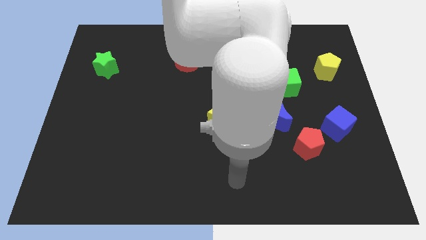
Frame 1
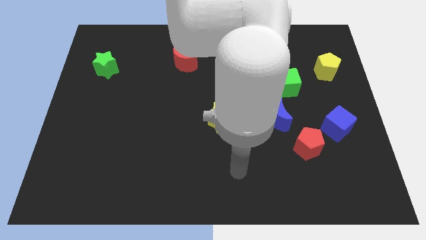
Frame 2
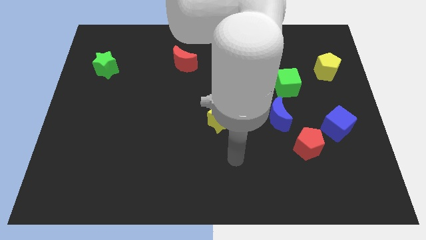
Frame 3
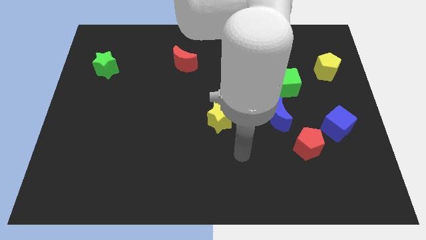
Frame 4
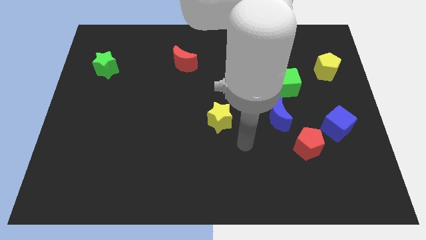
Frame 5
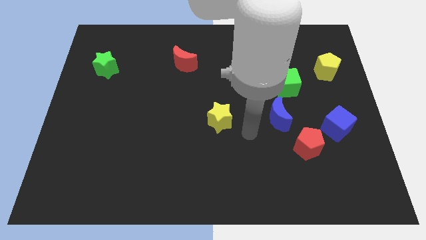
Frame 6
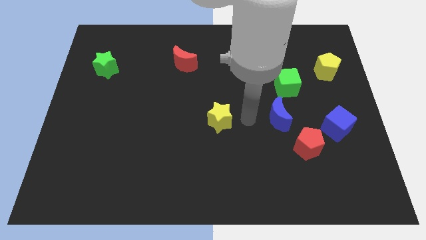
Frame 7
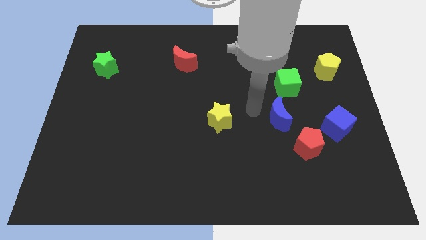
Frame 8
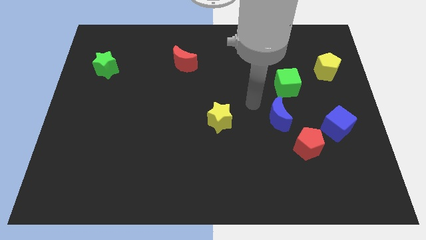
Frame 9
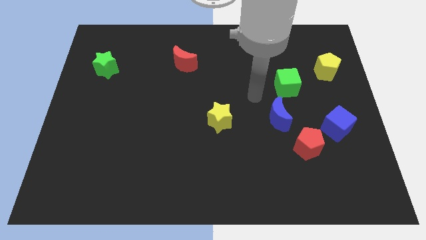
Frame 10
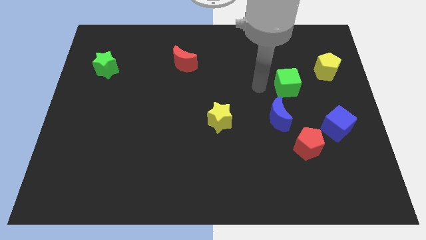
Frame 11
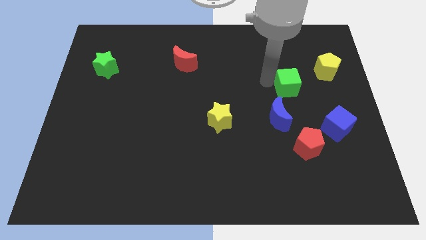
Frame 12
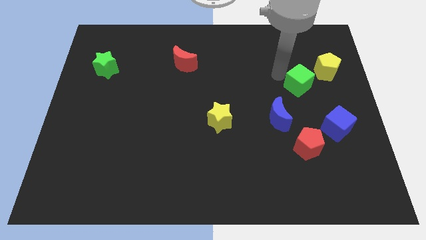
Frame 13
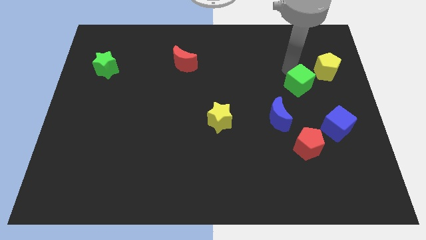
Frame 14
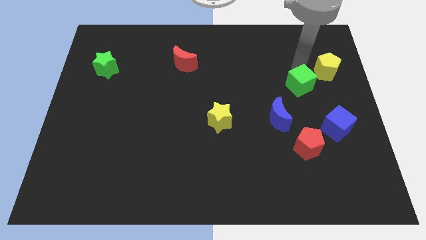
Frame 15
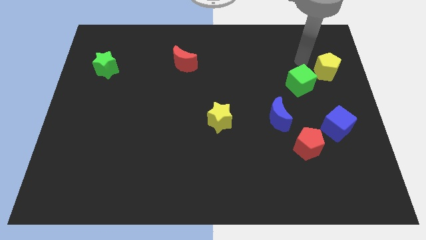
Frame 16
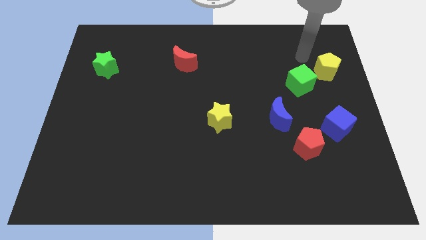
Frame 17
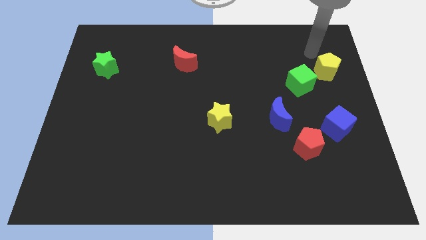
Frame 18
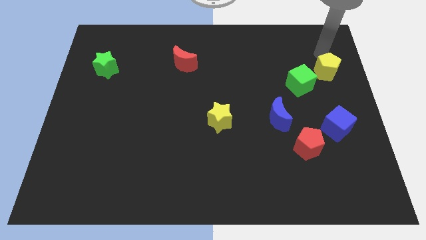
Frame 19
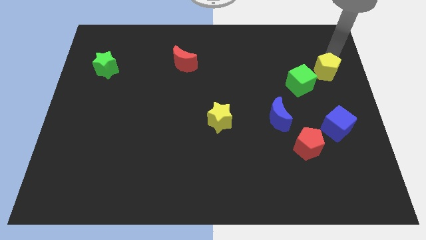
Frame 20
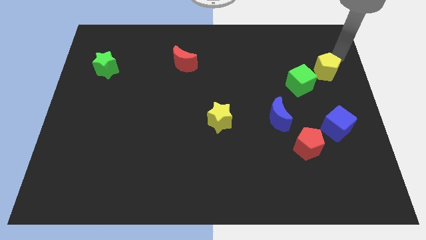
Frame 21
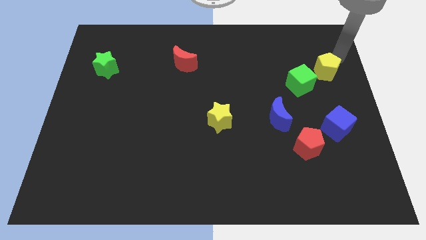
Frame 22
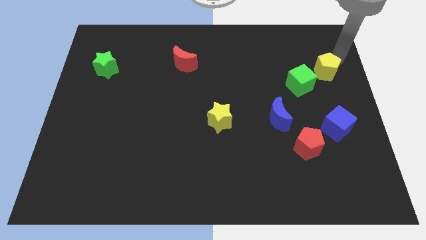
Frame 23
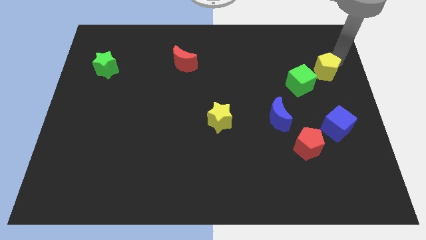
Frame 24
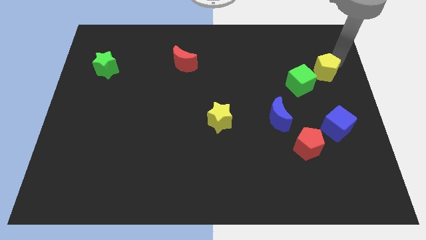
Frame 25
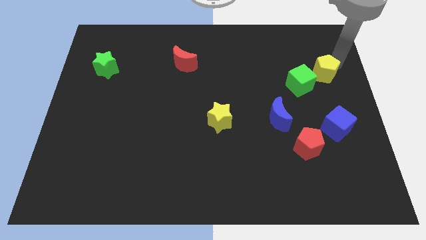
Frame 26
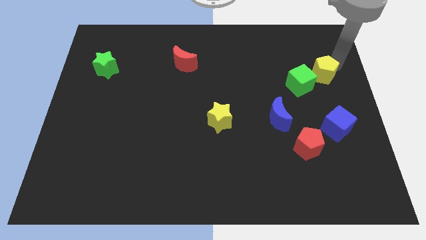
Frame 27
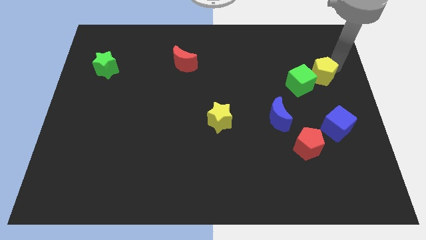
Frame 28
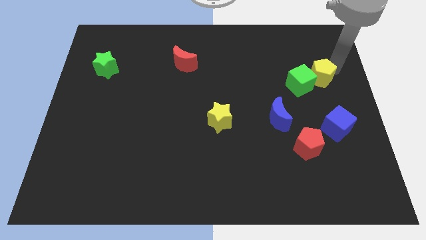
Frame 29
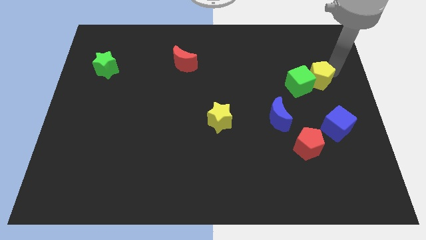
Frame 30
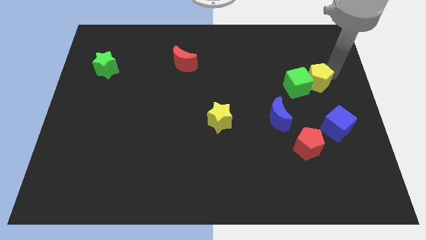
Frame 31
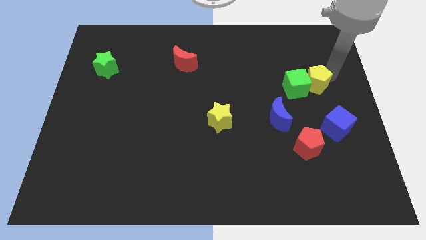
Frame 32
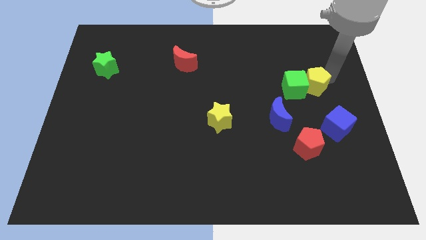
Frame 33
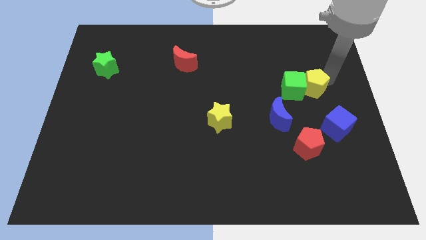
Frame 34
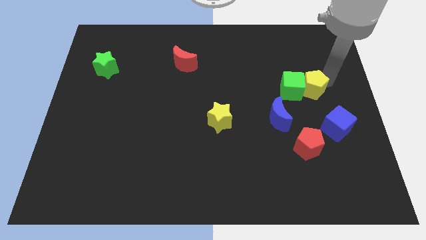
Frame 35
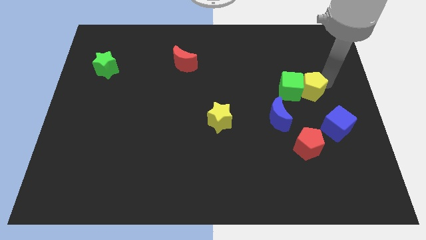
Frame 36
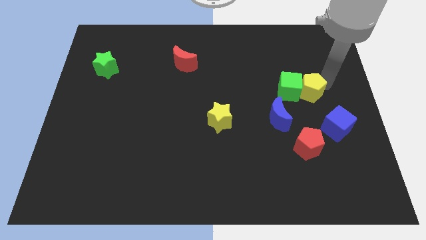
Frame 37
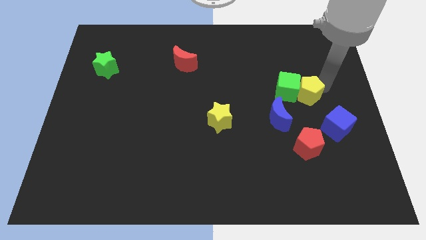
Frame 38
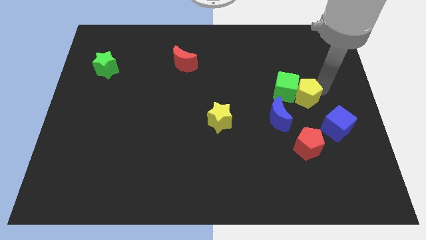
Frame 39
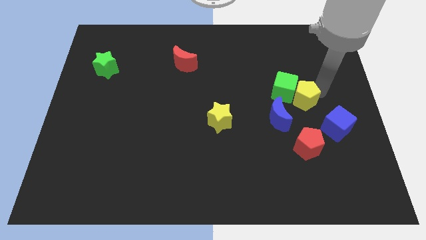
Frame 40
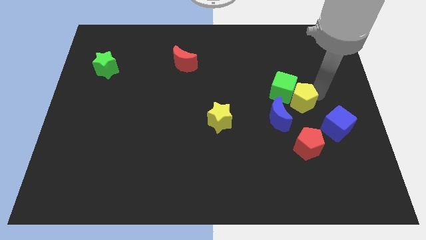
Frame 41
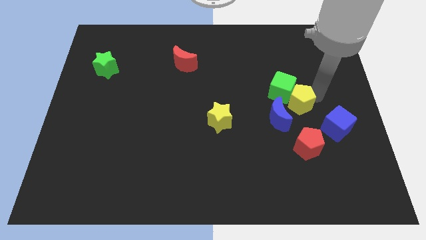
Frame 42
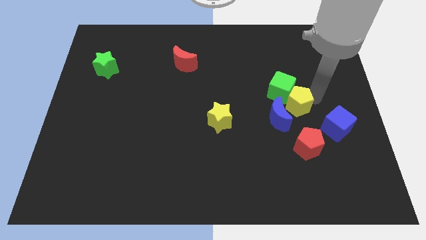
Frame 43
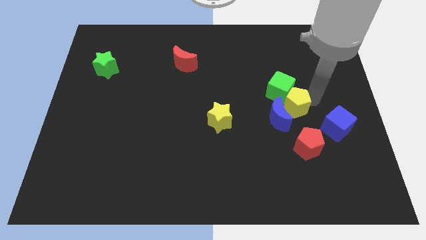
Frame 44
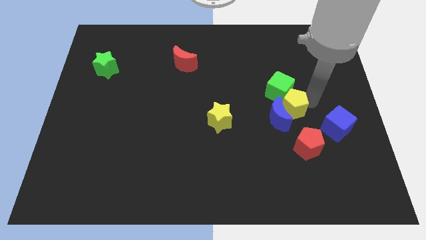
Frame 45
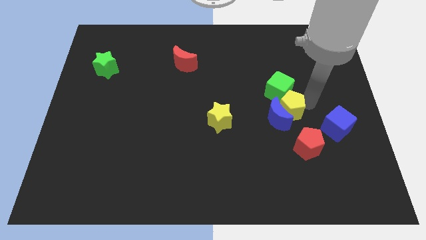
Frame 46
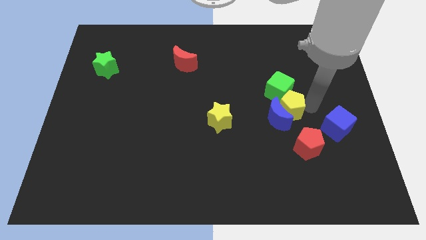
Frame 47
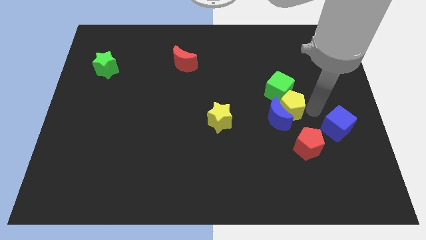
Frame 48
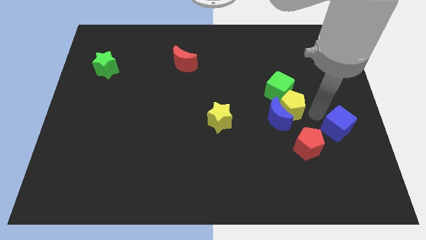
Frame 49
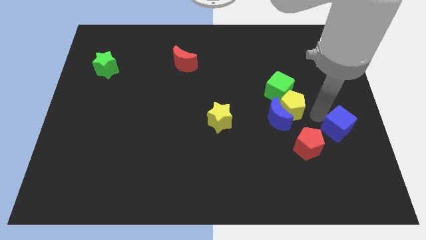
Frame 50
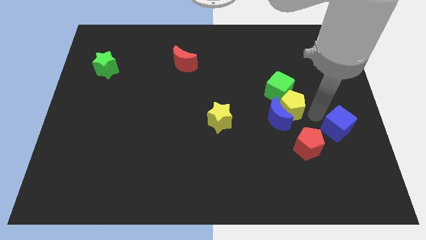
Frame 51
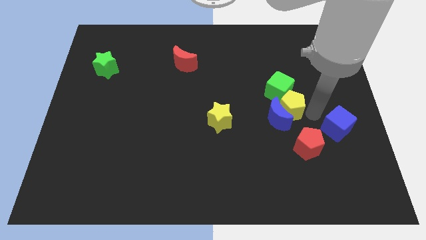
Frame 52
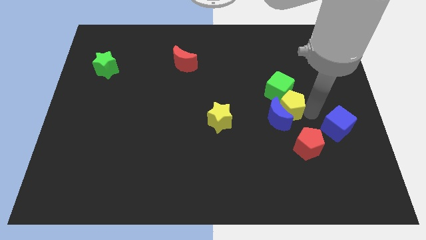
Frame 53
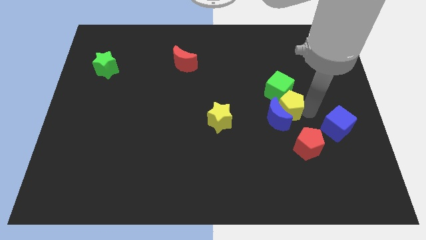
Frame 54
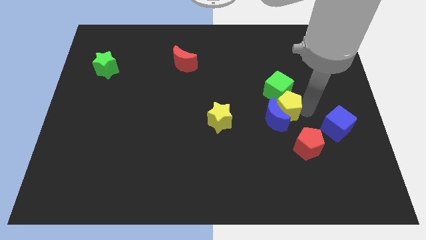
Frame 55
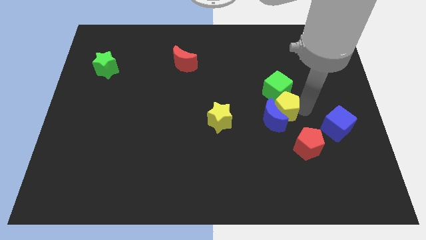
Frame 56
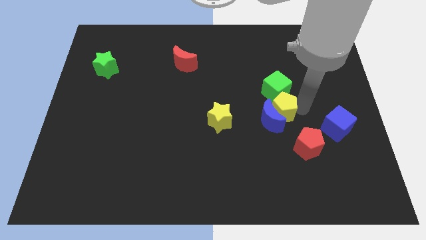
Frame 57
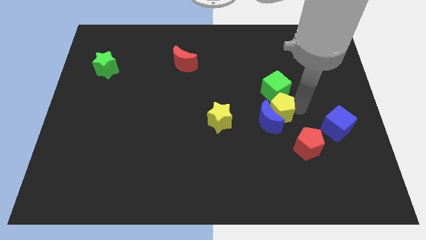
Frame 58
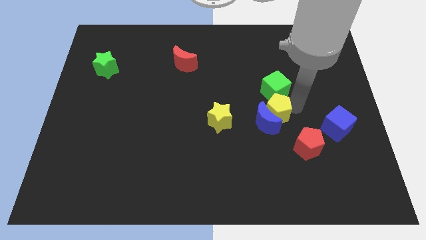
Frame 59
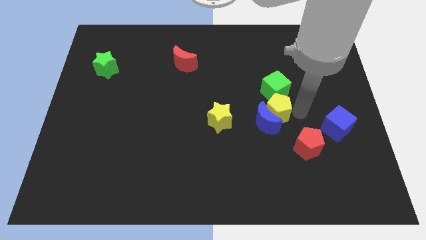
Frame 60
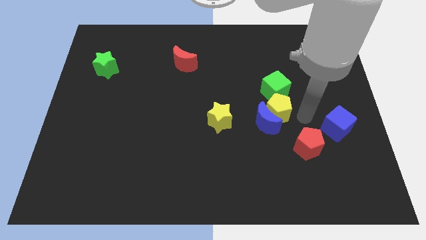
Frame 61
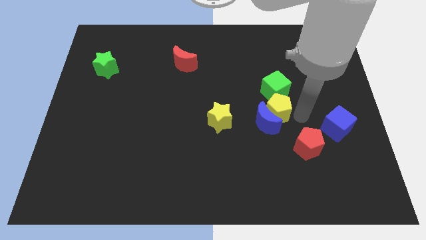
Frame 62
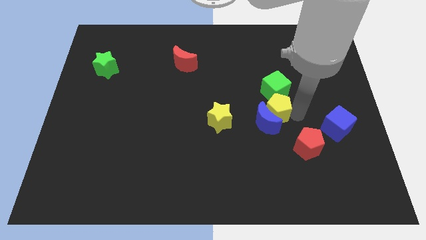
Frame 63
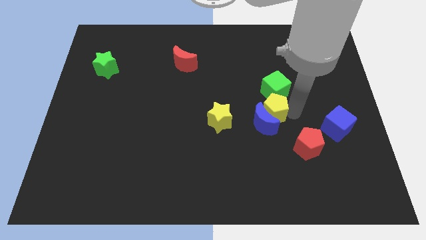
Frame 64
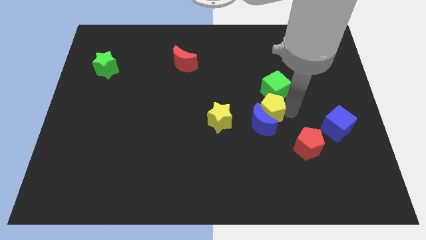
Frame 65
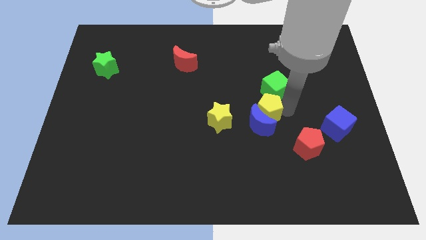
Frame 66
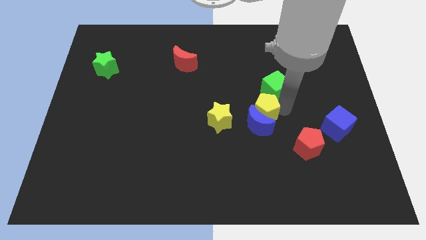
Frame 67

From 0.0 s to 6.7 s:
slide the yellow pentagon to the middle
